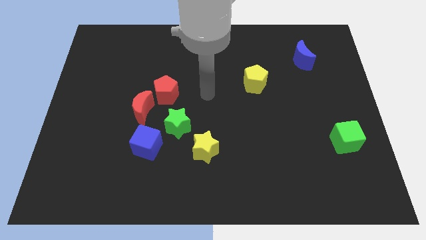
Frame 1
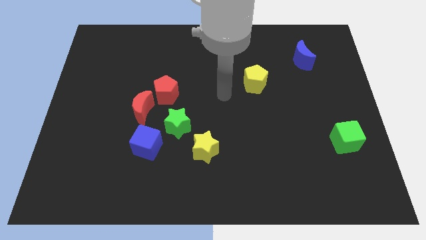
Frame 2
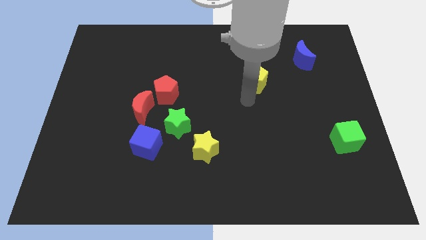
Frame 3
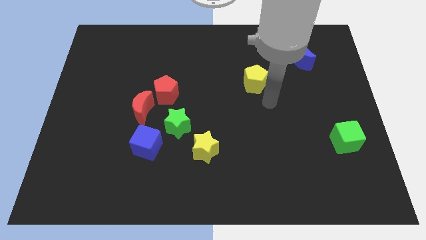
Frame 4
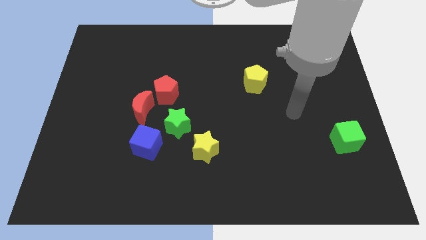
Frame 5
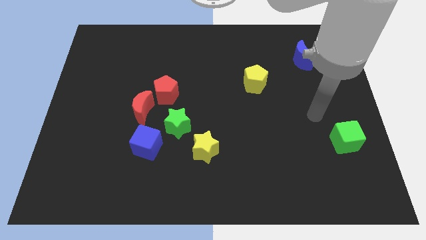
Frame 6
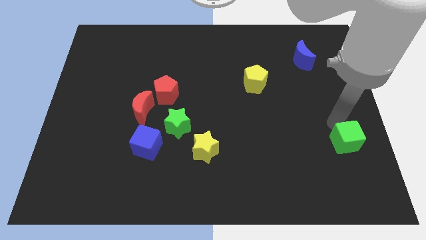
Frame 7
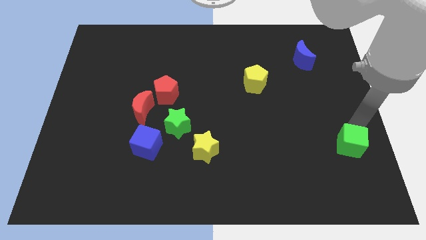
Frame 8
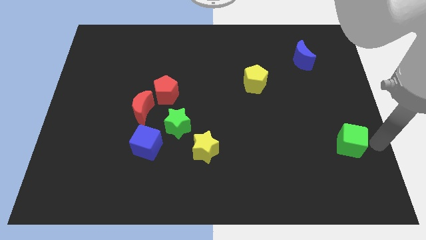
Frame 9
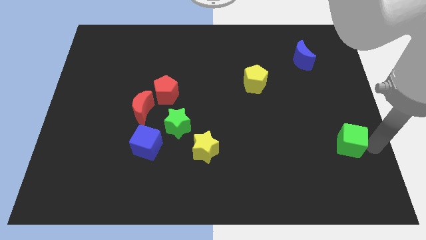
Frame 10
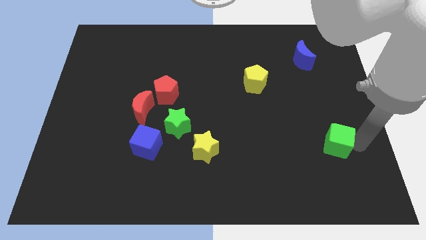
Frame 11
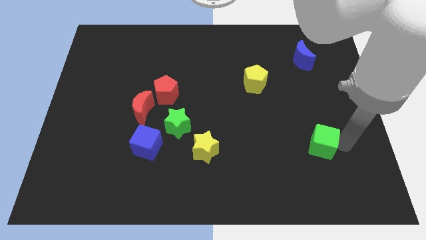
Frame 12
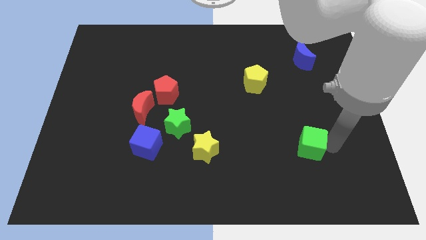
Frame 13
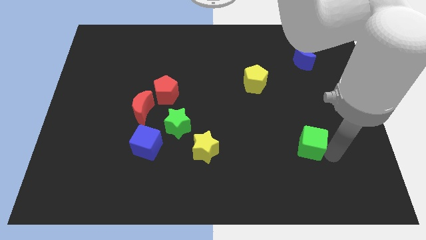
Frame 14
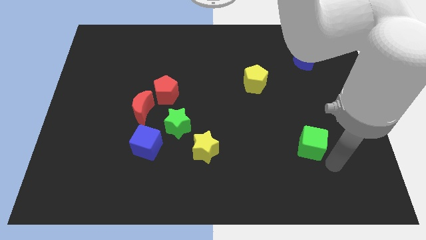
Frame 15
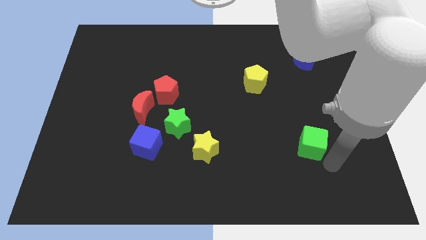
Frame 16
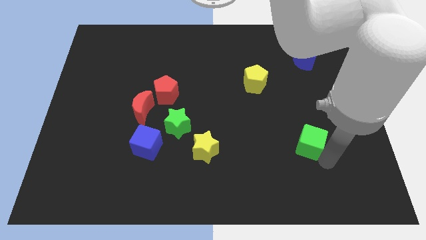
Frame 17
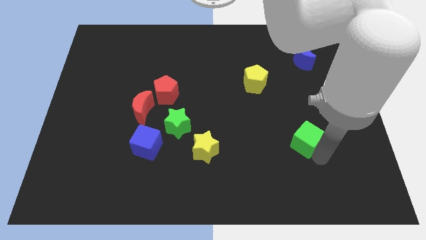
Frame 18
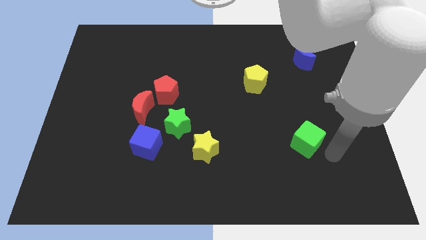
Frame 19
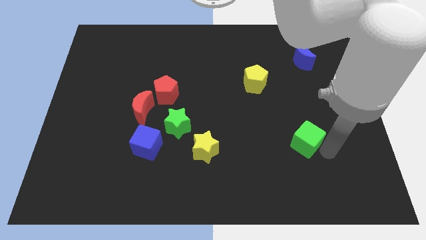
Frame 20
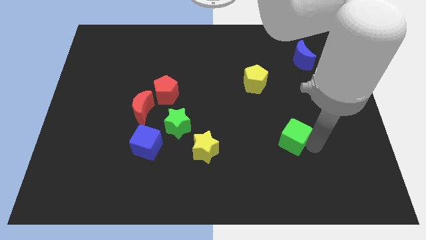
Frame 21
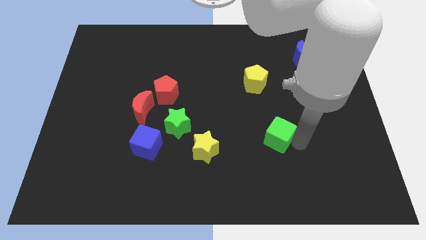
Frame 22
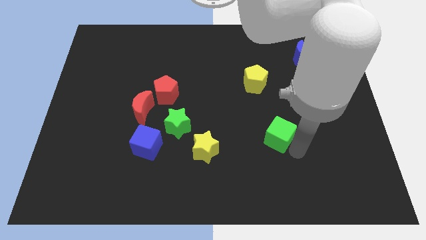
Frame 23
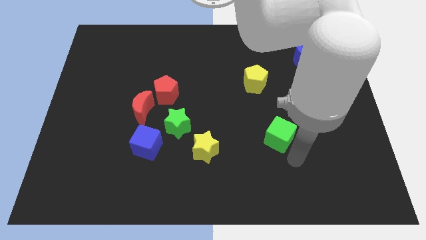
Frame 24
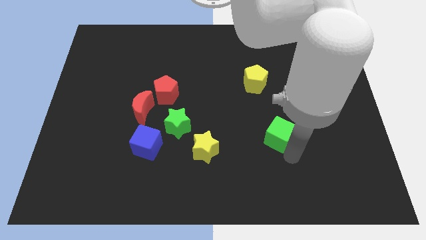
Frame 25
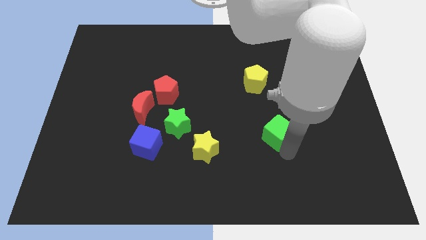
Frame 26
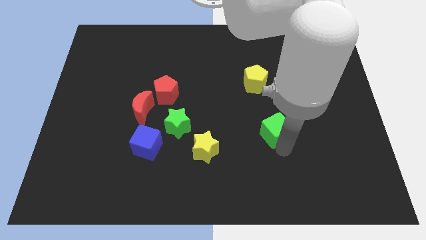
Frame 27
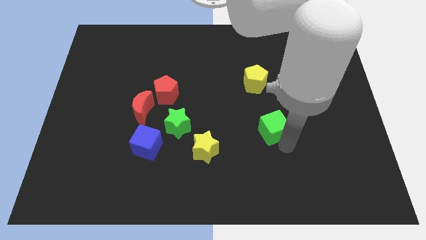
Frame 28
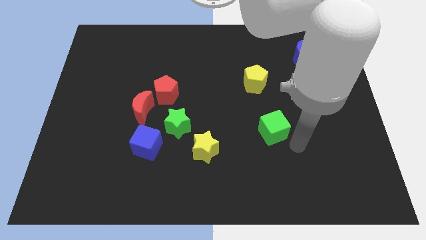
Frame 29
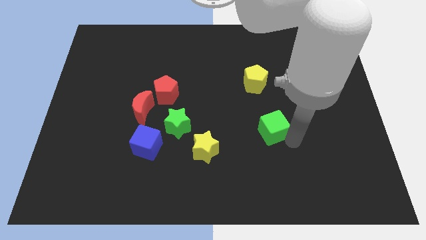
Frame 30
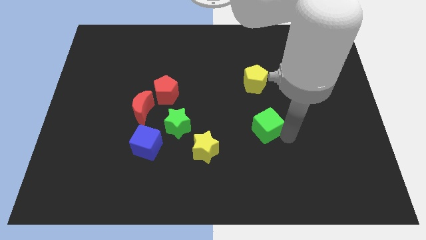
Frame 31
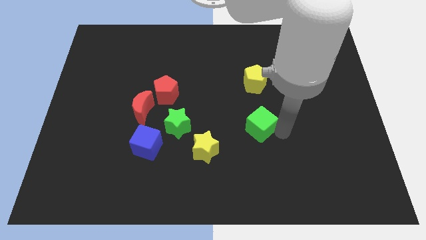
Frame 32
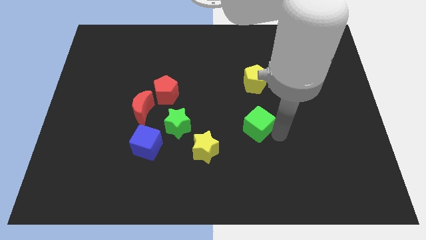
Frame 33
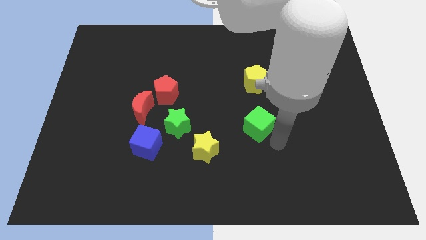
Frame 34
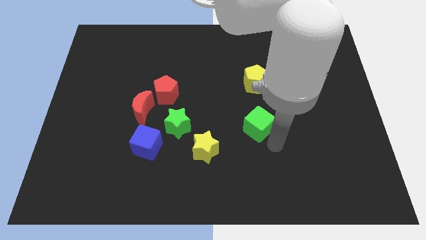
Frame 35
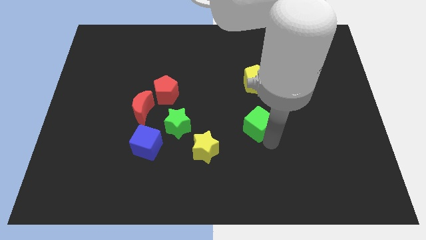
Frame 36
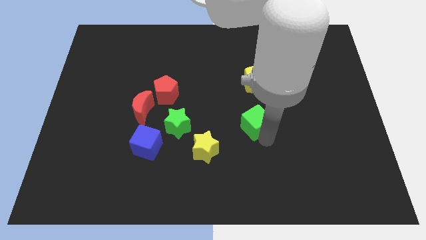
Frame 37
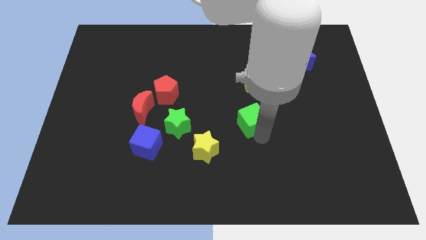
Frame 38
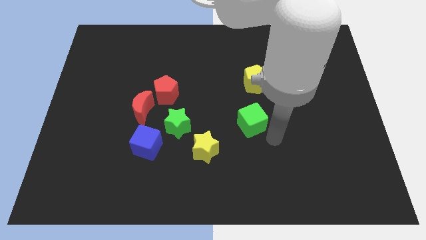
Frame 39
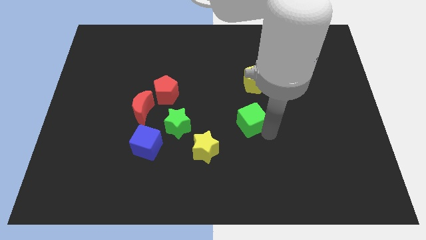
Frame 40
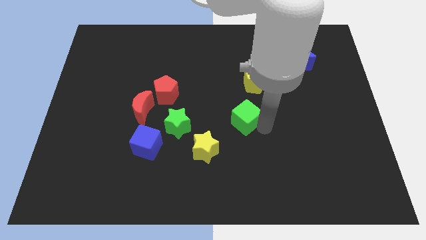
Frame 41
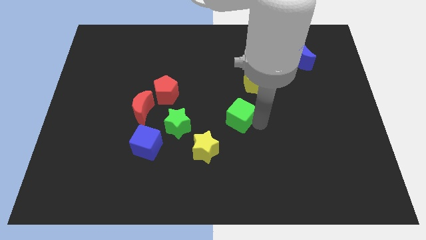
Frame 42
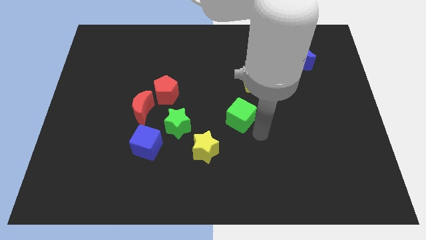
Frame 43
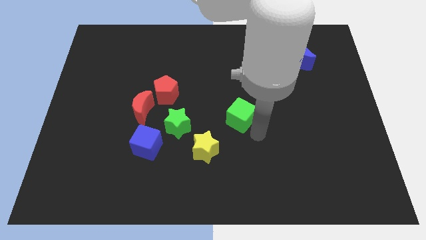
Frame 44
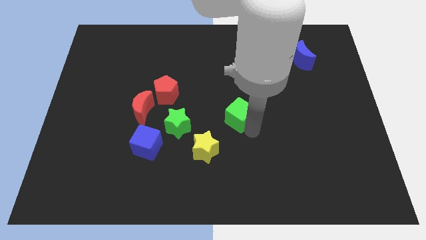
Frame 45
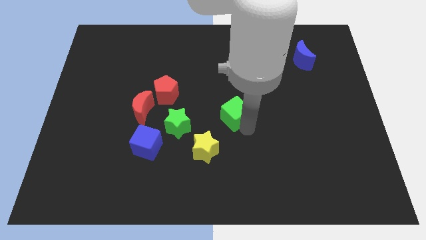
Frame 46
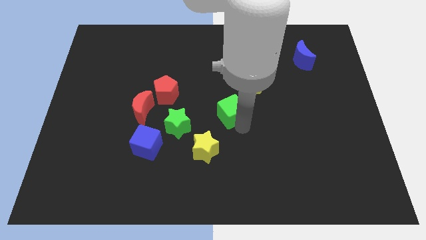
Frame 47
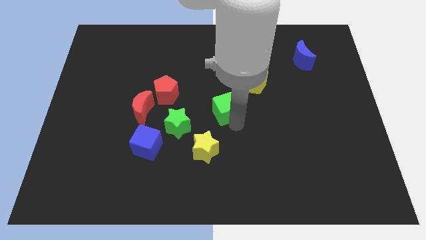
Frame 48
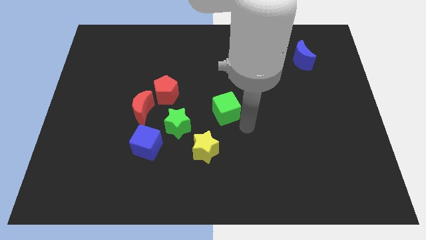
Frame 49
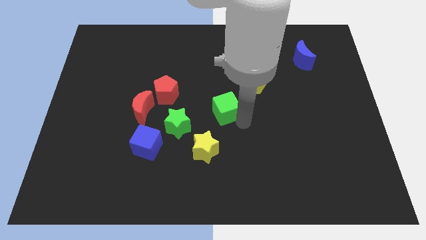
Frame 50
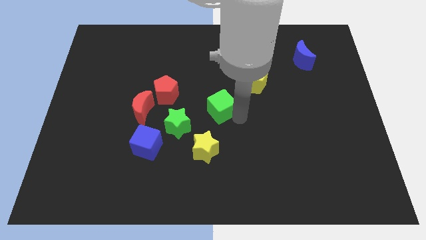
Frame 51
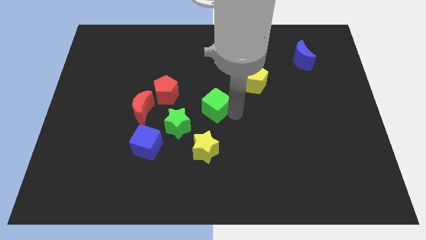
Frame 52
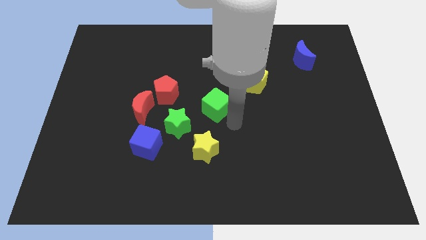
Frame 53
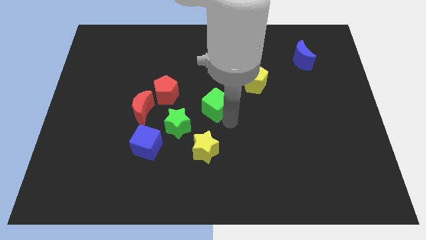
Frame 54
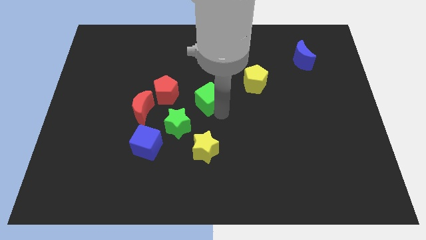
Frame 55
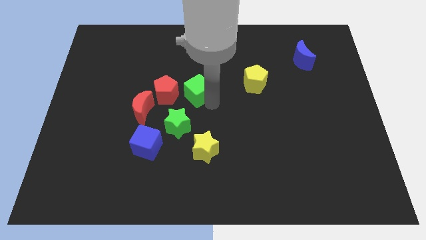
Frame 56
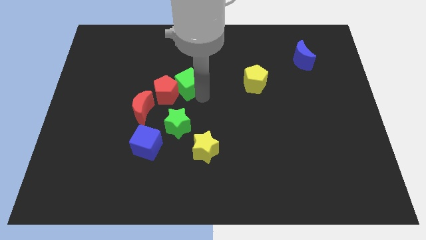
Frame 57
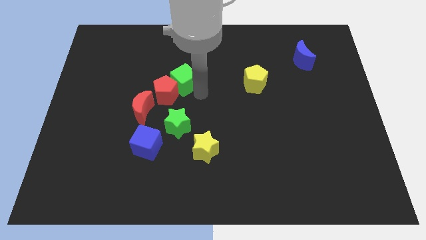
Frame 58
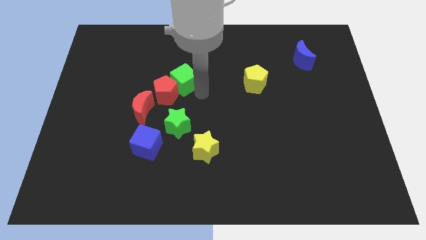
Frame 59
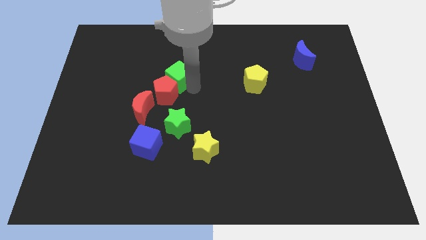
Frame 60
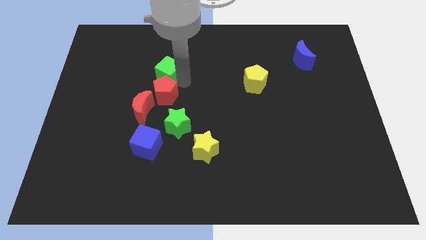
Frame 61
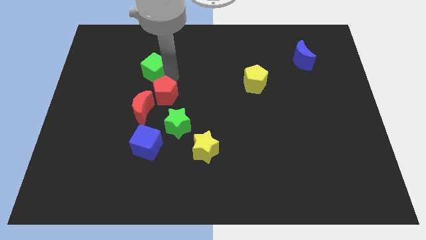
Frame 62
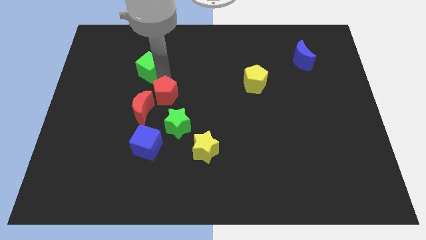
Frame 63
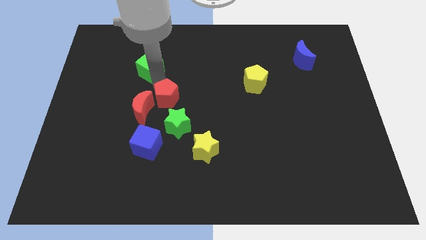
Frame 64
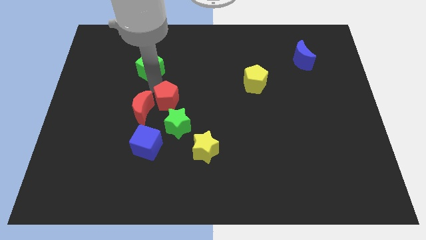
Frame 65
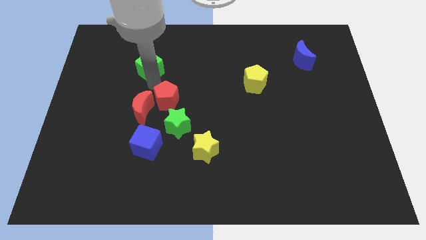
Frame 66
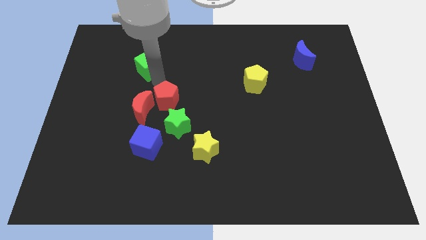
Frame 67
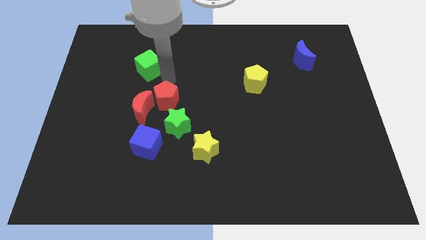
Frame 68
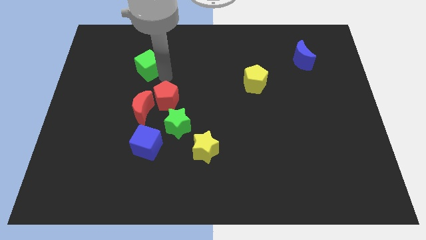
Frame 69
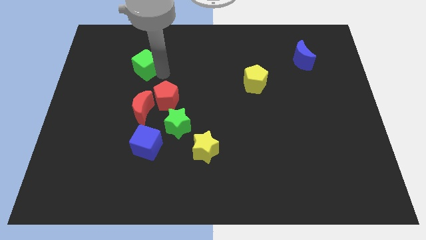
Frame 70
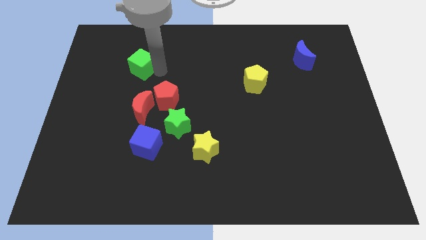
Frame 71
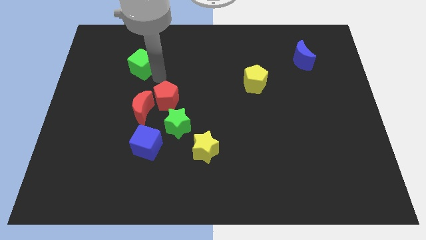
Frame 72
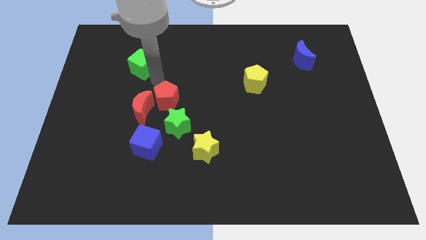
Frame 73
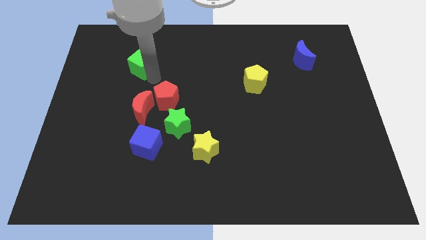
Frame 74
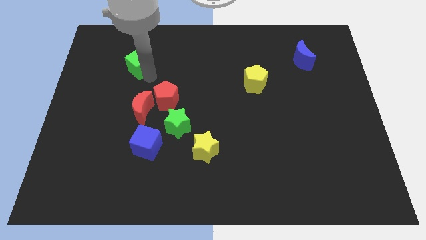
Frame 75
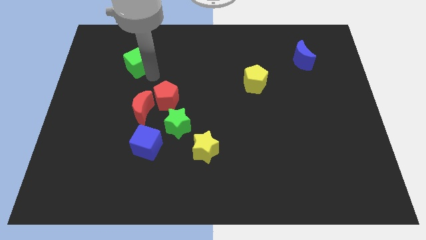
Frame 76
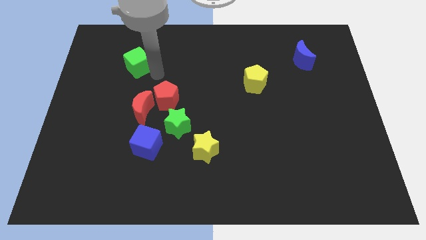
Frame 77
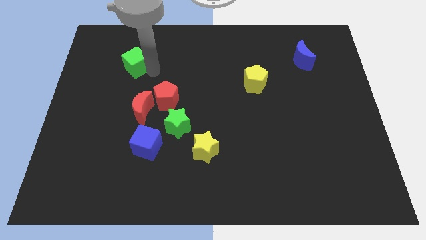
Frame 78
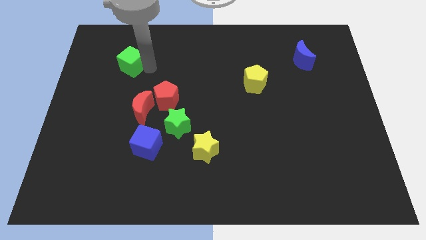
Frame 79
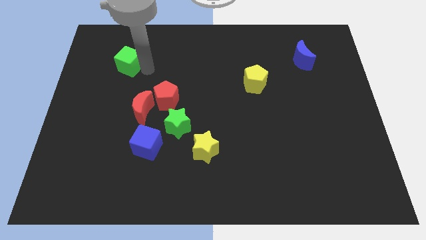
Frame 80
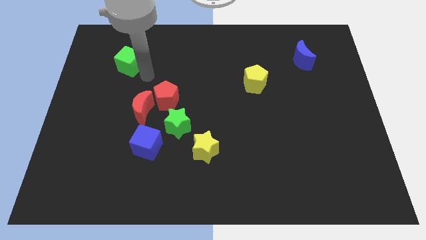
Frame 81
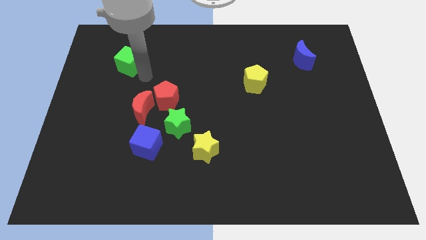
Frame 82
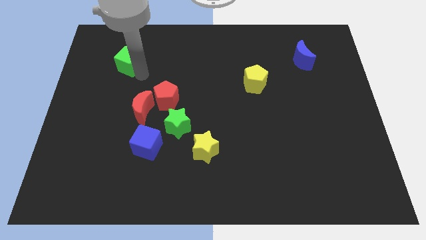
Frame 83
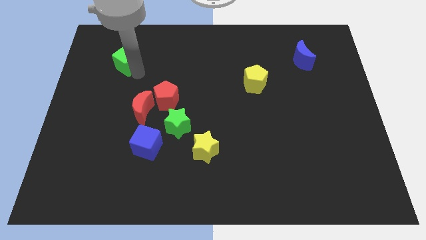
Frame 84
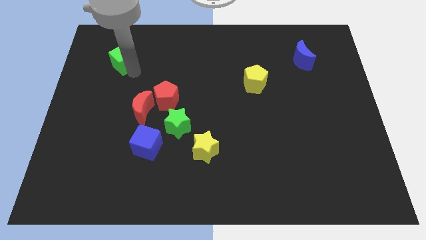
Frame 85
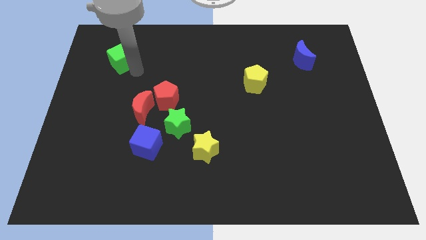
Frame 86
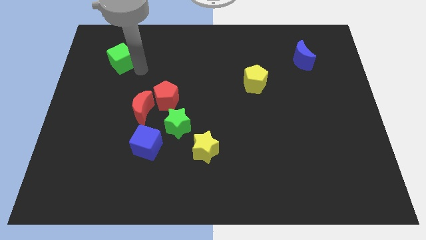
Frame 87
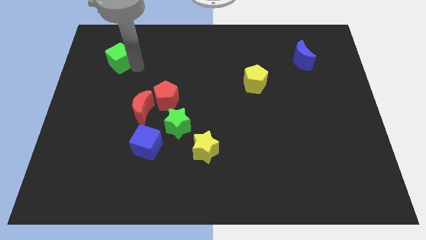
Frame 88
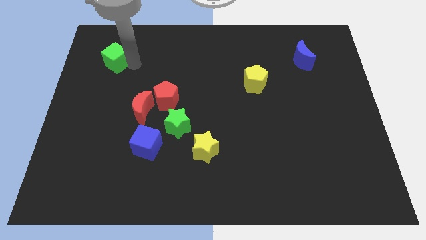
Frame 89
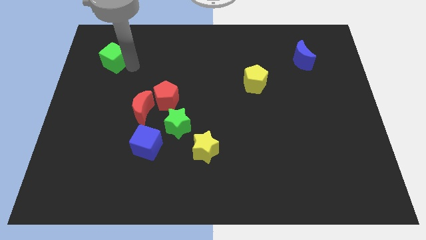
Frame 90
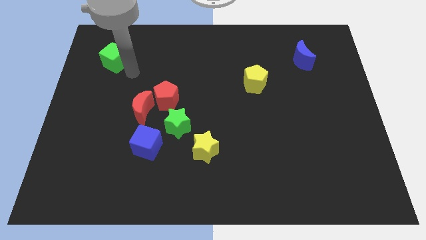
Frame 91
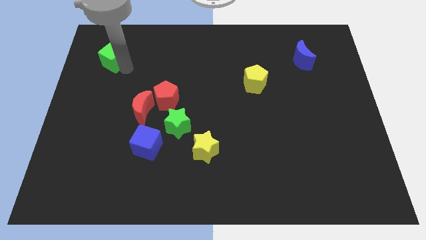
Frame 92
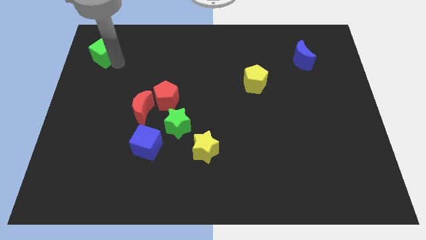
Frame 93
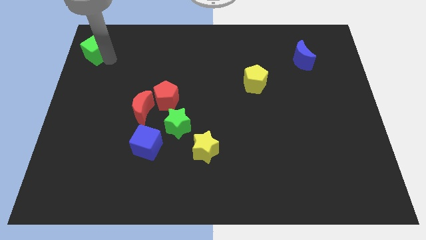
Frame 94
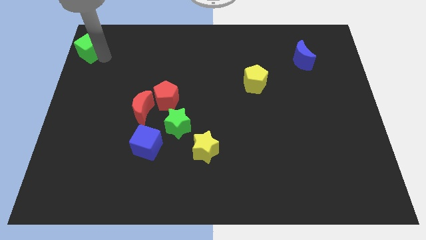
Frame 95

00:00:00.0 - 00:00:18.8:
move the green cube to the top left corner
